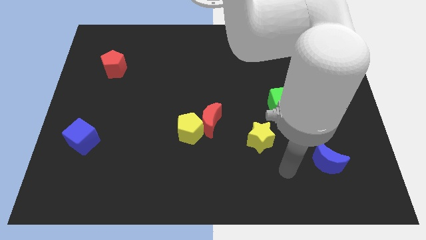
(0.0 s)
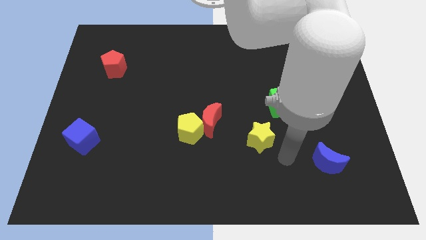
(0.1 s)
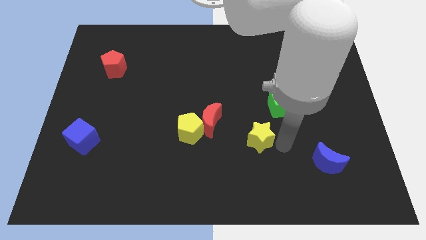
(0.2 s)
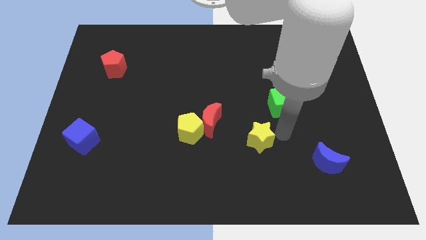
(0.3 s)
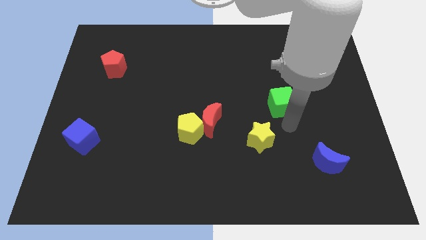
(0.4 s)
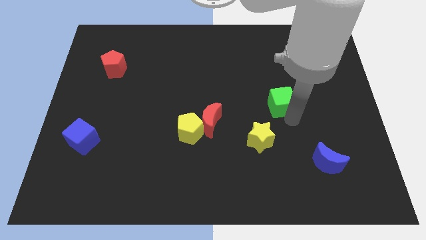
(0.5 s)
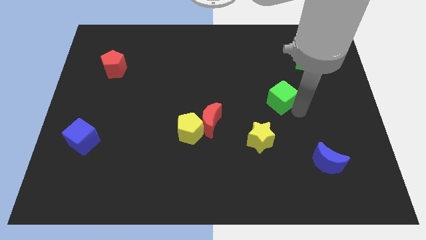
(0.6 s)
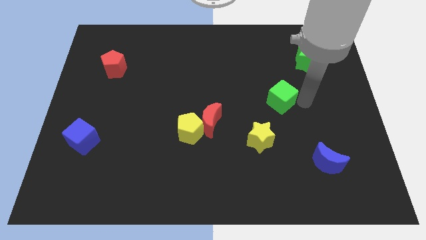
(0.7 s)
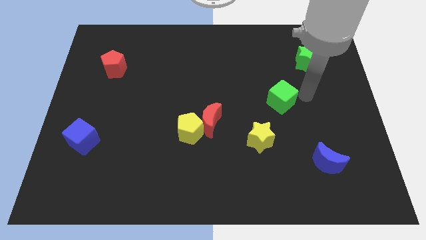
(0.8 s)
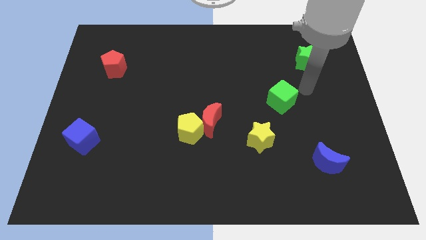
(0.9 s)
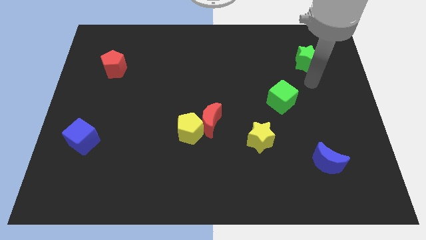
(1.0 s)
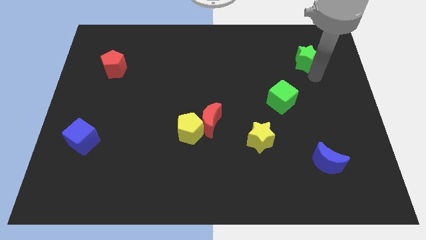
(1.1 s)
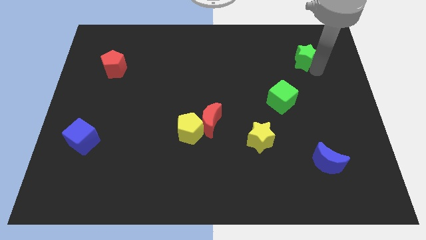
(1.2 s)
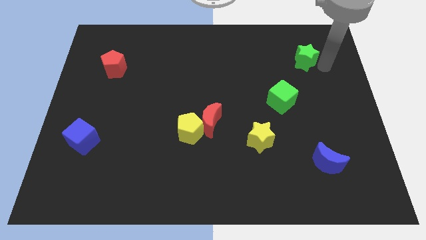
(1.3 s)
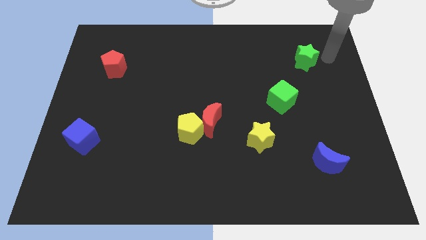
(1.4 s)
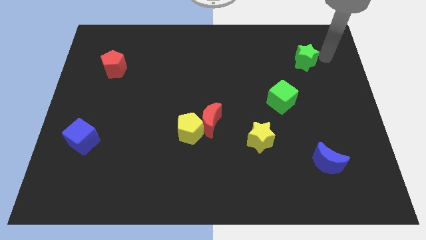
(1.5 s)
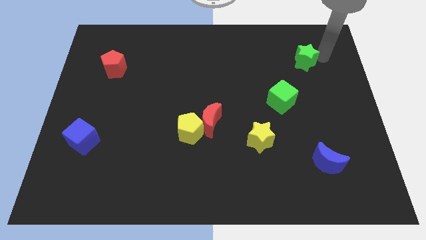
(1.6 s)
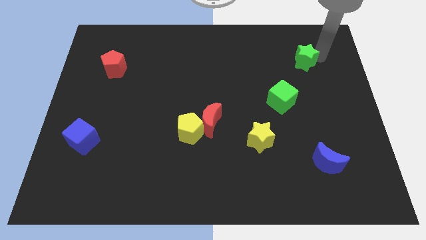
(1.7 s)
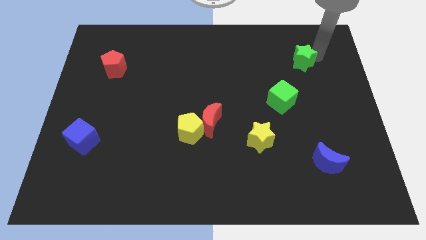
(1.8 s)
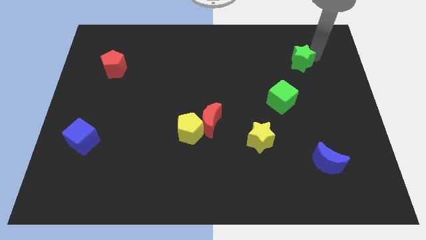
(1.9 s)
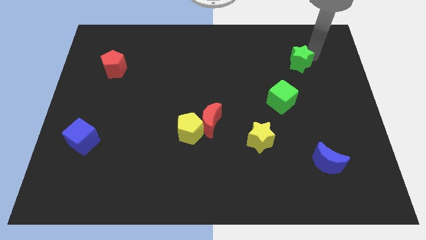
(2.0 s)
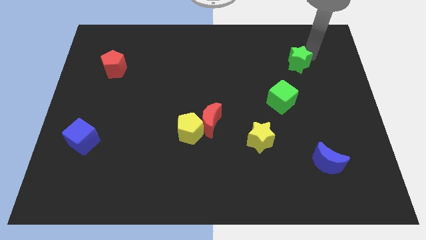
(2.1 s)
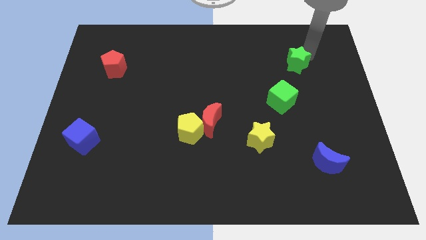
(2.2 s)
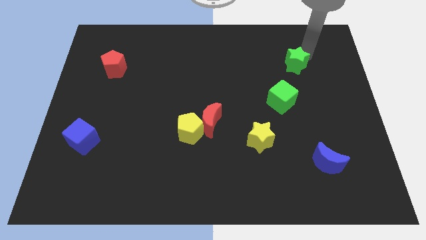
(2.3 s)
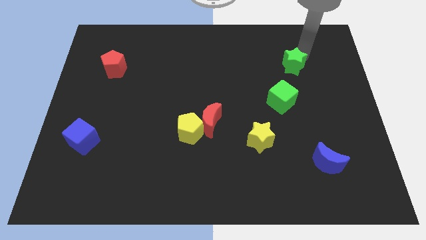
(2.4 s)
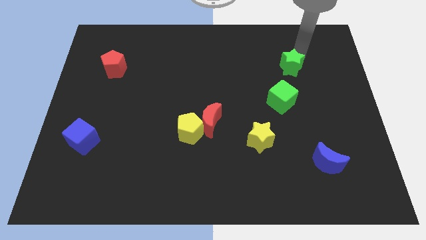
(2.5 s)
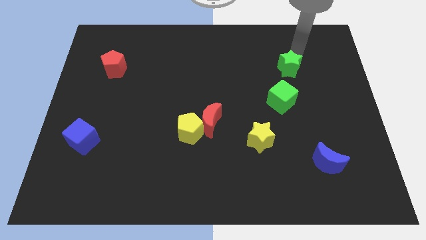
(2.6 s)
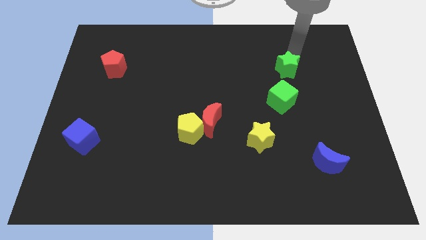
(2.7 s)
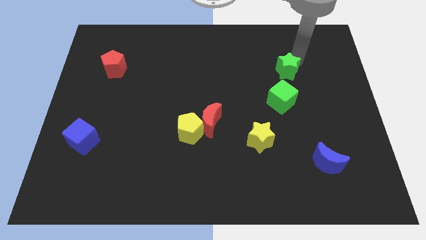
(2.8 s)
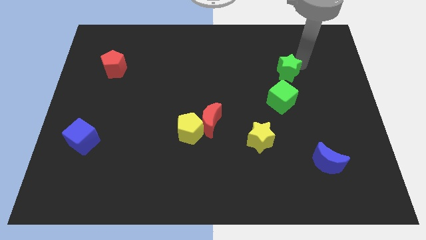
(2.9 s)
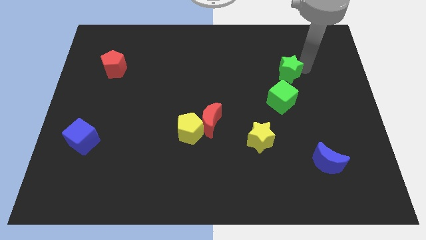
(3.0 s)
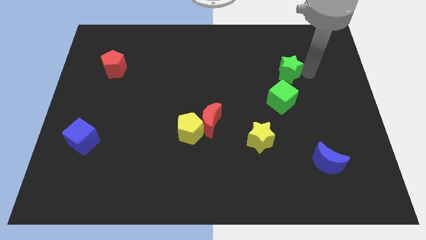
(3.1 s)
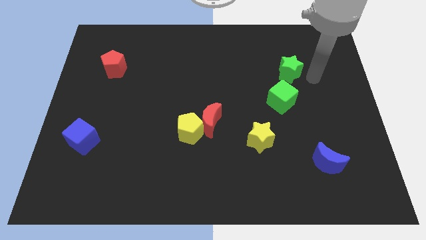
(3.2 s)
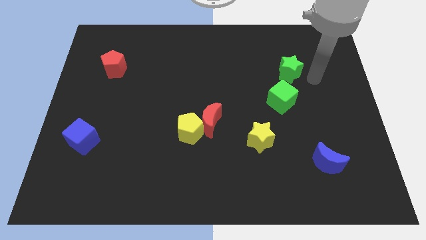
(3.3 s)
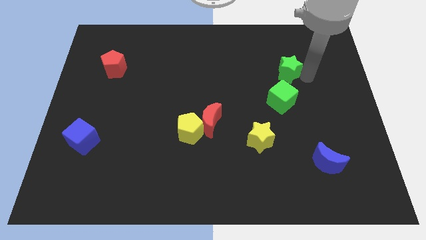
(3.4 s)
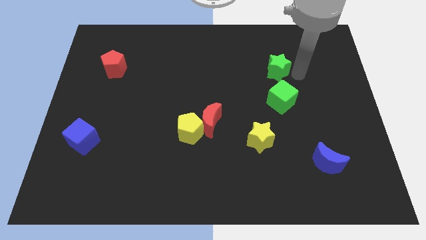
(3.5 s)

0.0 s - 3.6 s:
move the green star to the left a bit

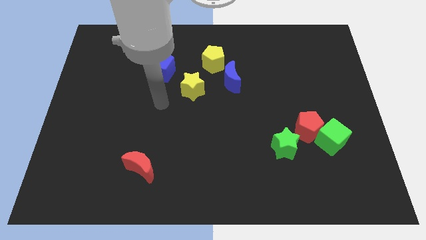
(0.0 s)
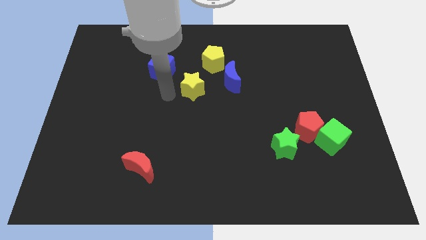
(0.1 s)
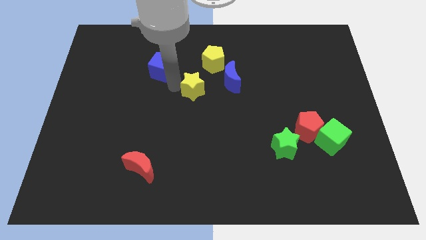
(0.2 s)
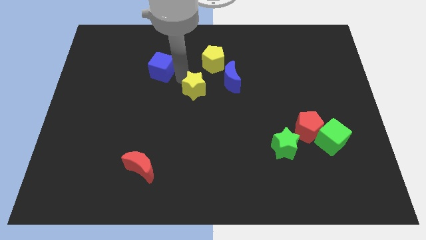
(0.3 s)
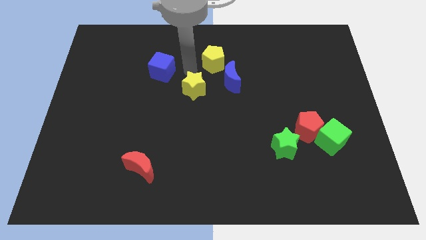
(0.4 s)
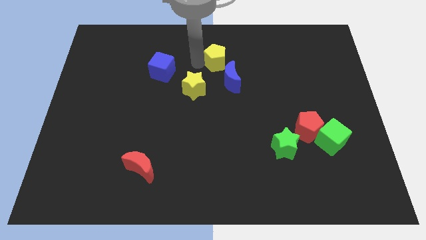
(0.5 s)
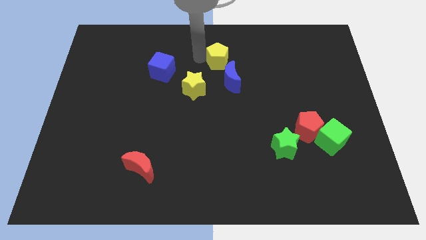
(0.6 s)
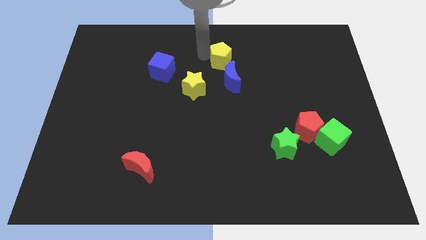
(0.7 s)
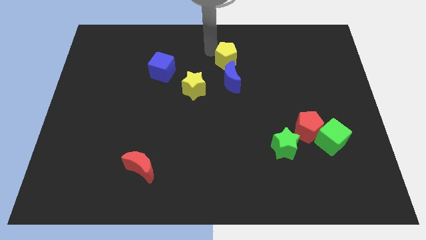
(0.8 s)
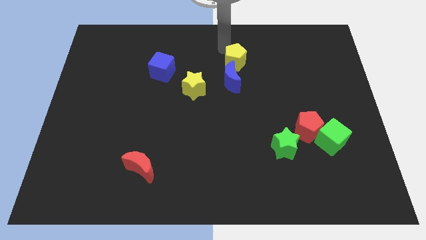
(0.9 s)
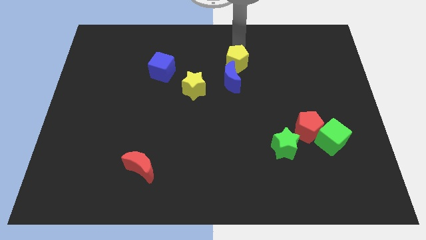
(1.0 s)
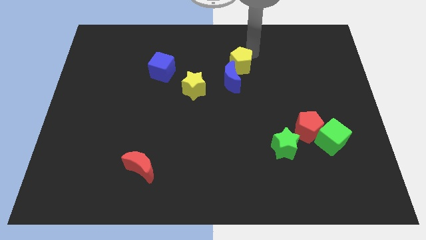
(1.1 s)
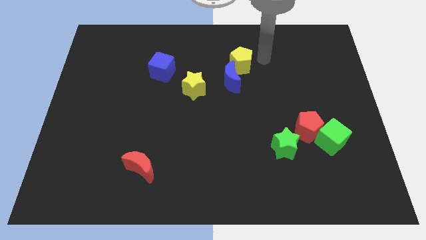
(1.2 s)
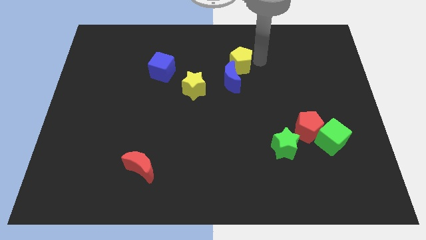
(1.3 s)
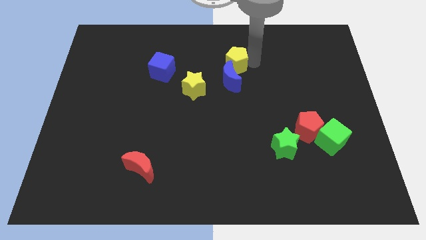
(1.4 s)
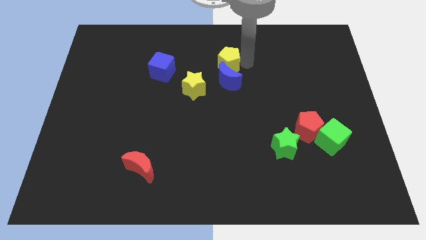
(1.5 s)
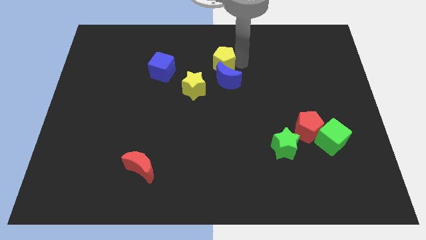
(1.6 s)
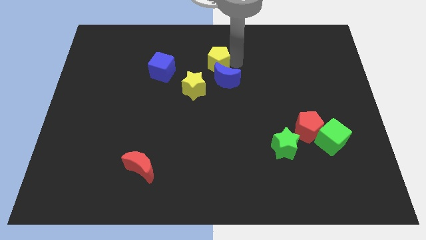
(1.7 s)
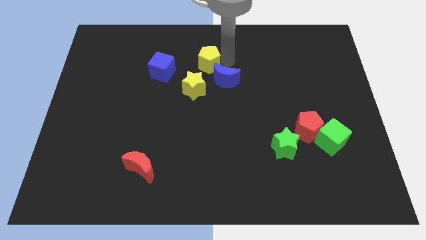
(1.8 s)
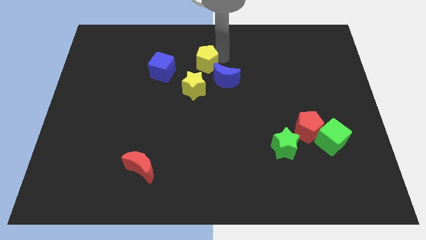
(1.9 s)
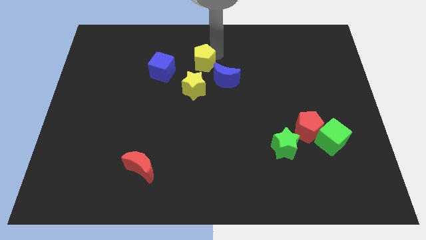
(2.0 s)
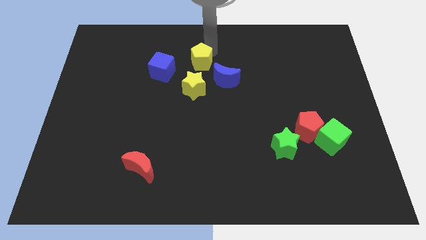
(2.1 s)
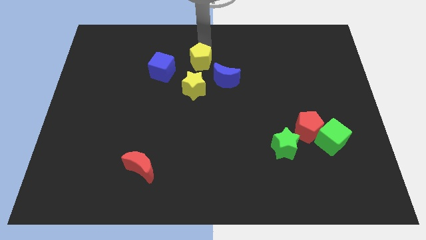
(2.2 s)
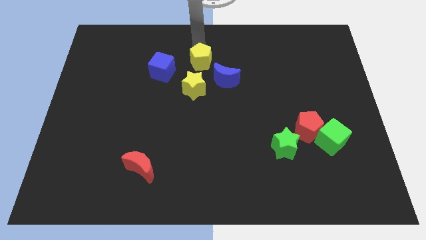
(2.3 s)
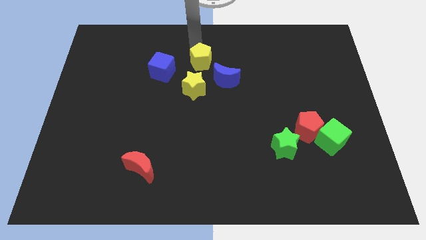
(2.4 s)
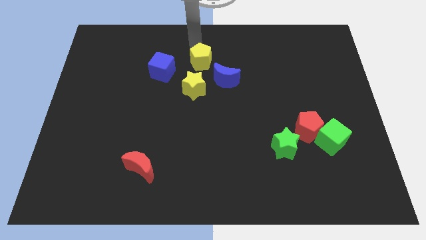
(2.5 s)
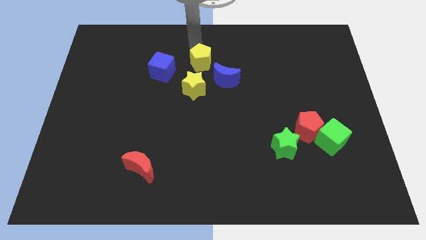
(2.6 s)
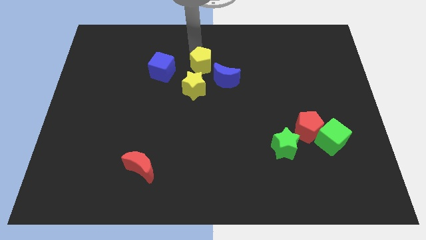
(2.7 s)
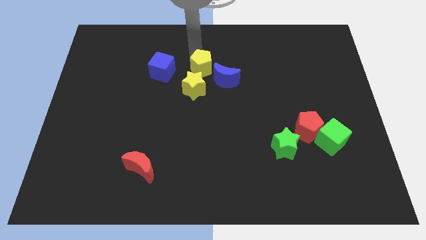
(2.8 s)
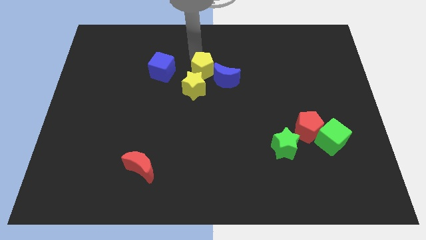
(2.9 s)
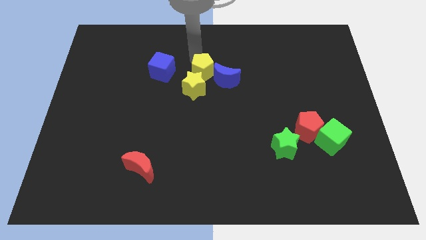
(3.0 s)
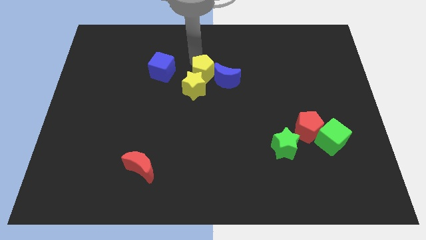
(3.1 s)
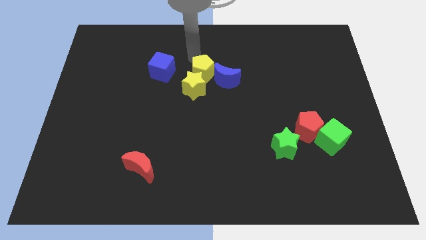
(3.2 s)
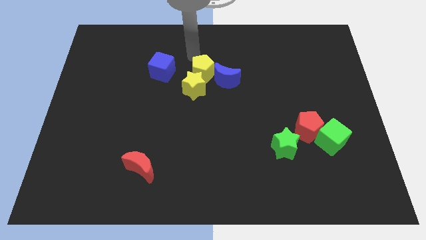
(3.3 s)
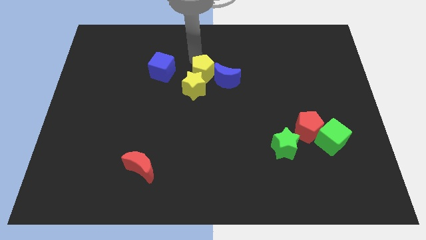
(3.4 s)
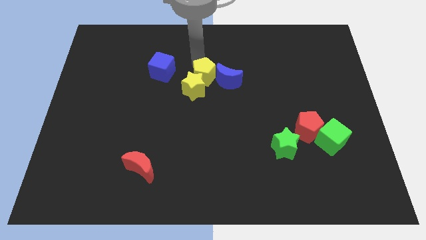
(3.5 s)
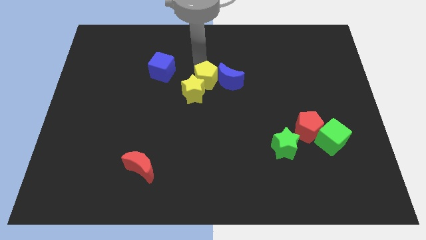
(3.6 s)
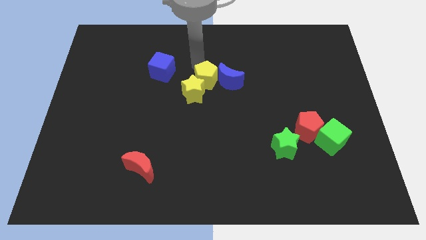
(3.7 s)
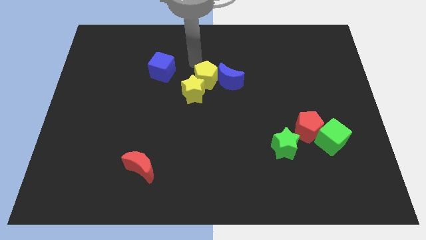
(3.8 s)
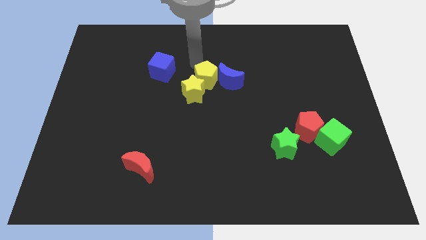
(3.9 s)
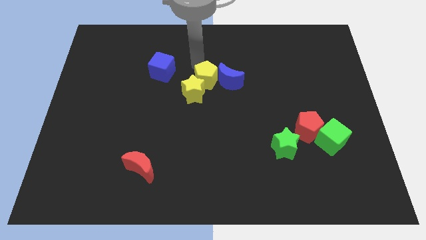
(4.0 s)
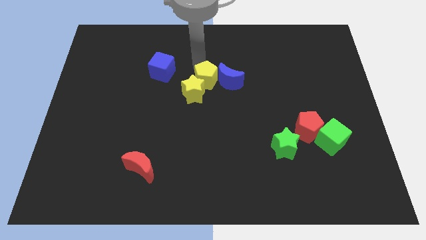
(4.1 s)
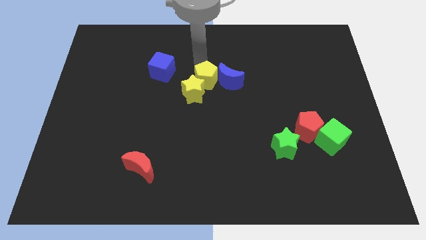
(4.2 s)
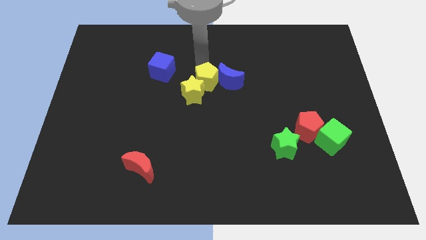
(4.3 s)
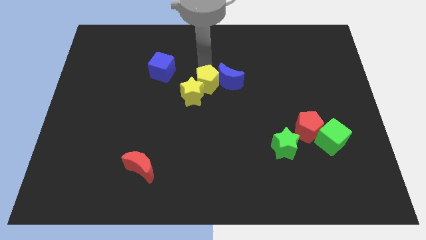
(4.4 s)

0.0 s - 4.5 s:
slide the yellow pentagon down a little
